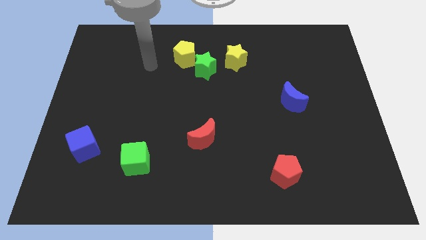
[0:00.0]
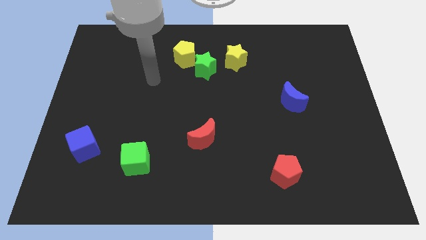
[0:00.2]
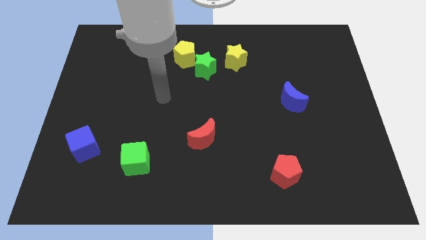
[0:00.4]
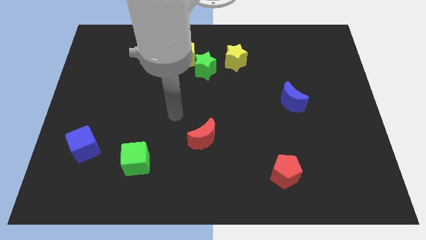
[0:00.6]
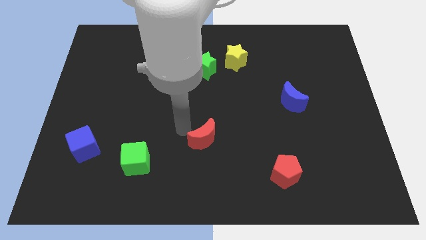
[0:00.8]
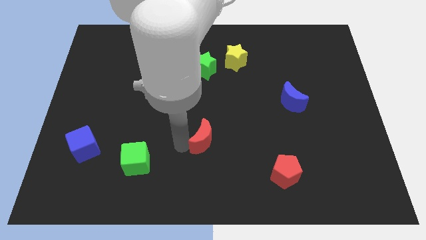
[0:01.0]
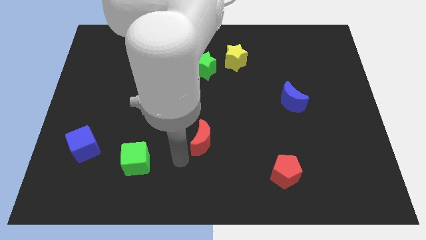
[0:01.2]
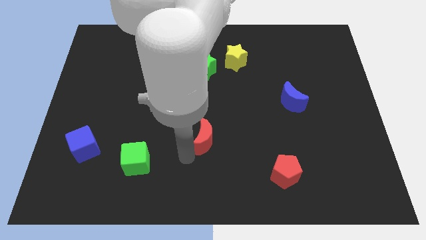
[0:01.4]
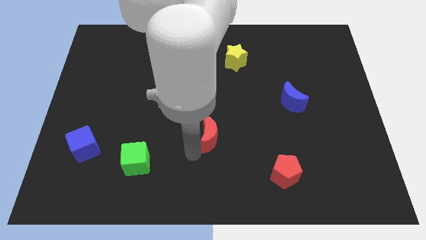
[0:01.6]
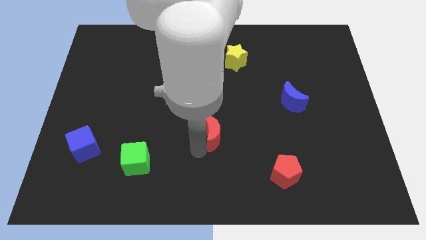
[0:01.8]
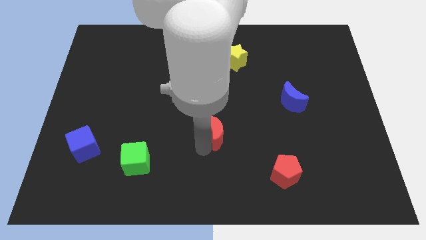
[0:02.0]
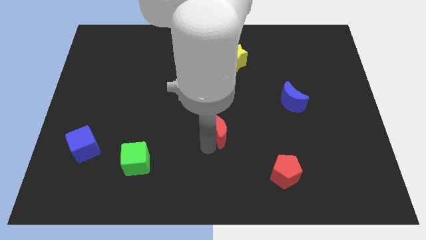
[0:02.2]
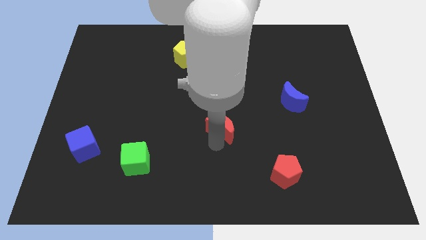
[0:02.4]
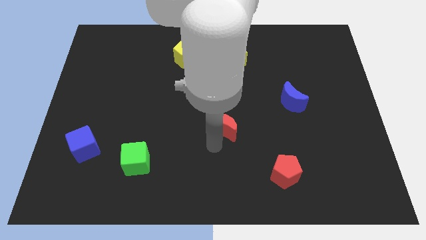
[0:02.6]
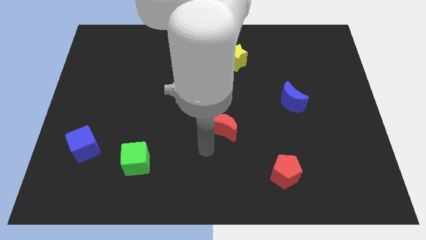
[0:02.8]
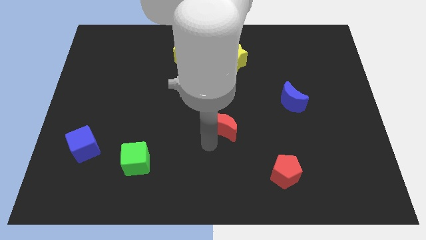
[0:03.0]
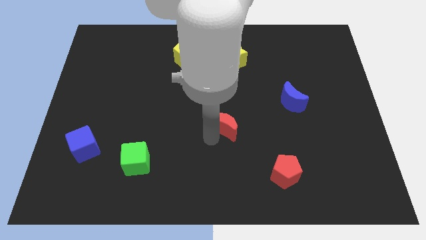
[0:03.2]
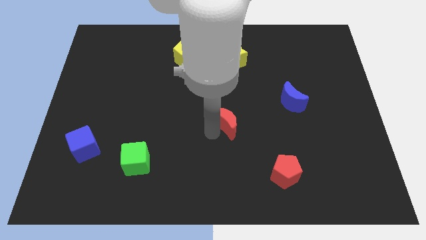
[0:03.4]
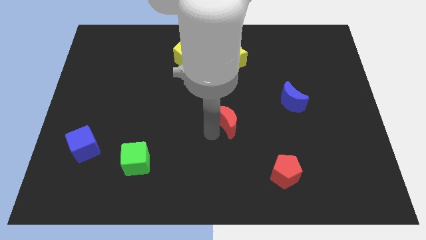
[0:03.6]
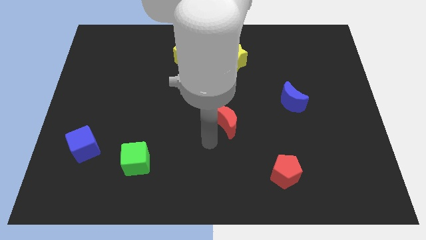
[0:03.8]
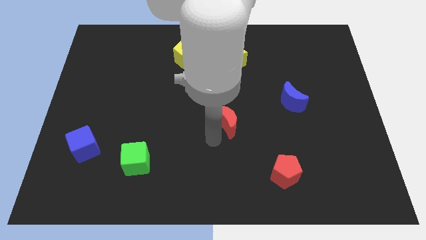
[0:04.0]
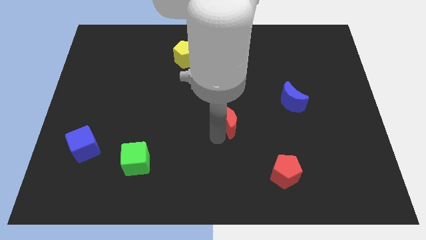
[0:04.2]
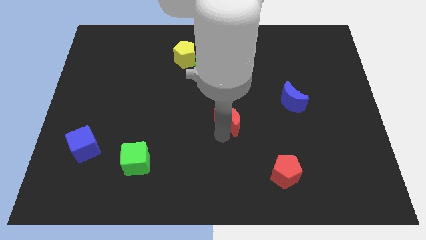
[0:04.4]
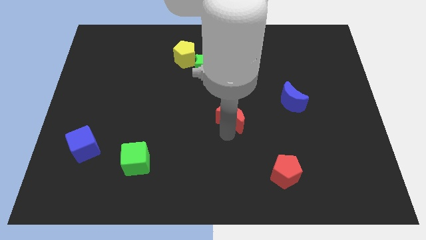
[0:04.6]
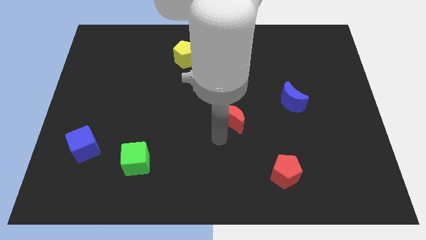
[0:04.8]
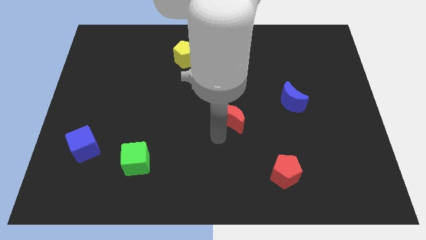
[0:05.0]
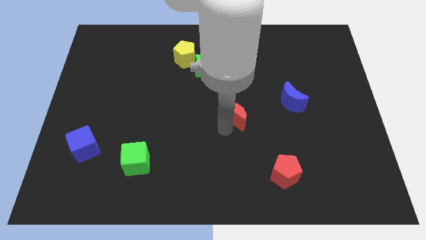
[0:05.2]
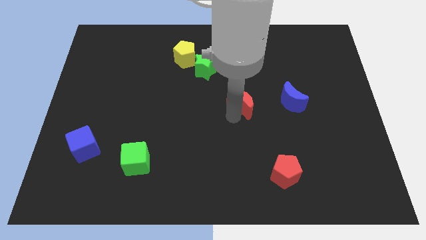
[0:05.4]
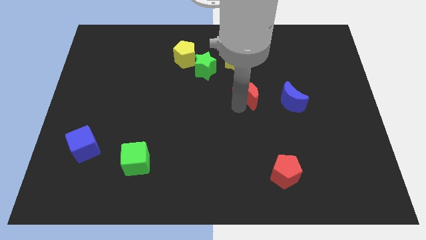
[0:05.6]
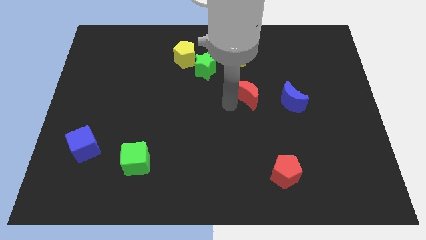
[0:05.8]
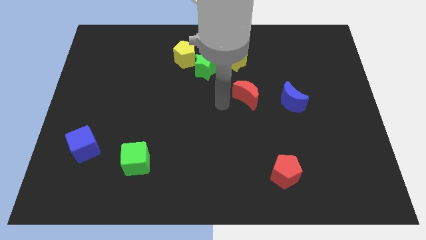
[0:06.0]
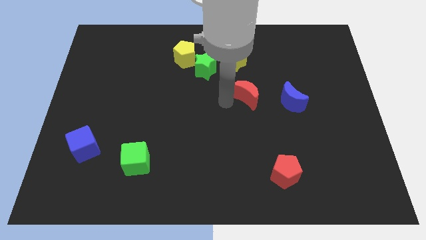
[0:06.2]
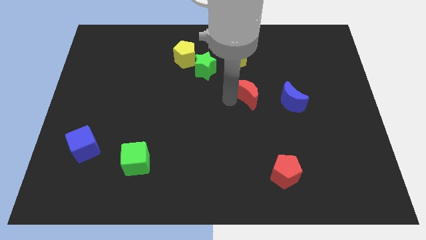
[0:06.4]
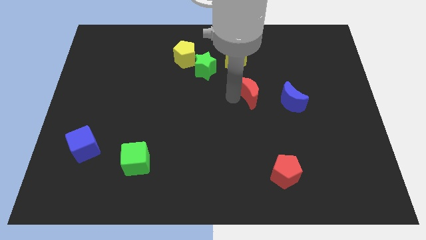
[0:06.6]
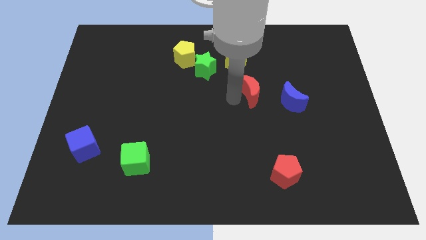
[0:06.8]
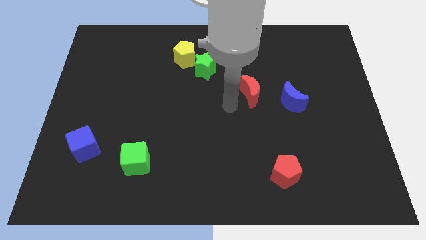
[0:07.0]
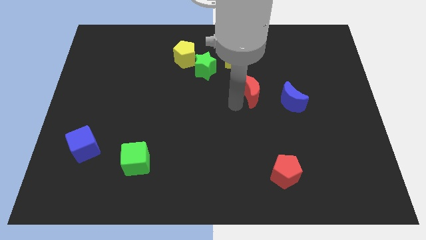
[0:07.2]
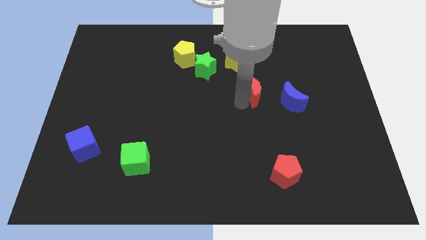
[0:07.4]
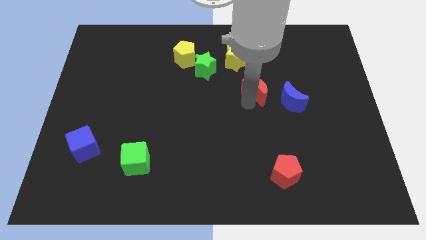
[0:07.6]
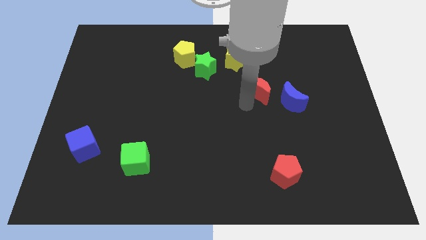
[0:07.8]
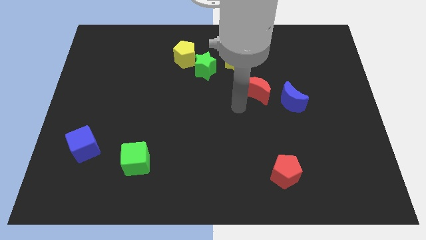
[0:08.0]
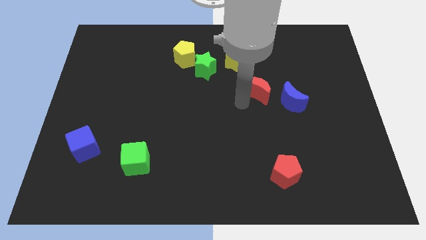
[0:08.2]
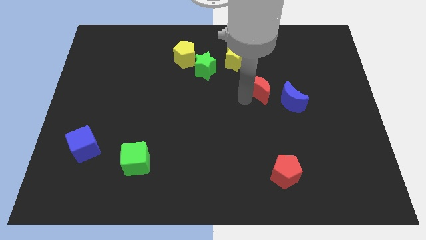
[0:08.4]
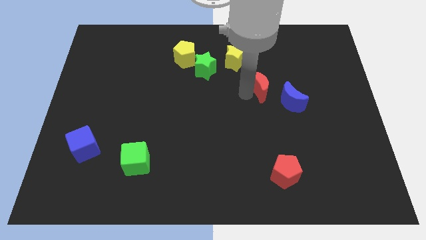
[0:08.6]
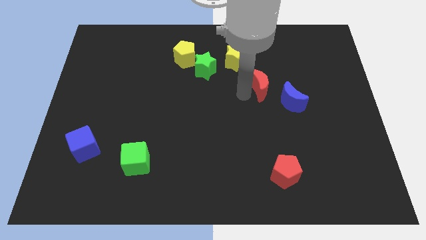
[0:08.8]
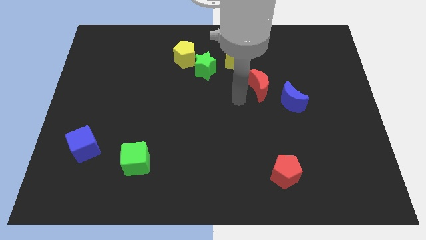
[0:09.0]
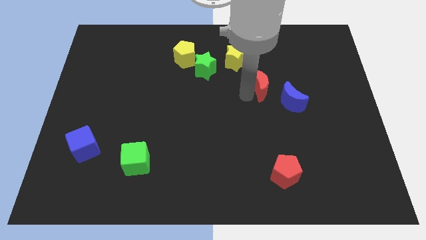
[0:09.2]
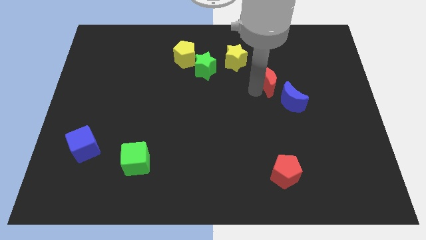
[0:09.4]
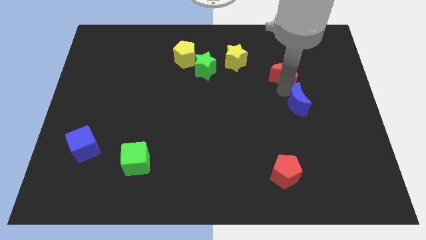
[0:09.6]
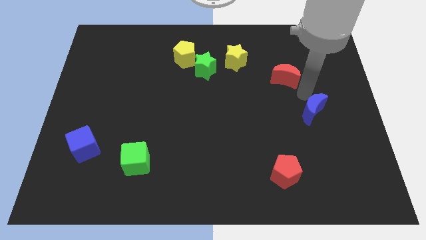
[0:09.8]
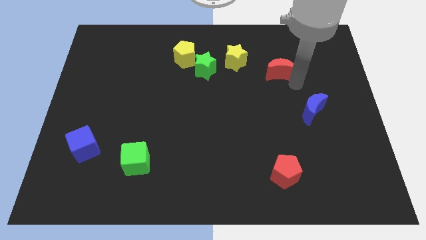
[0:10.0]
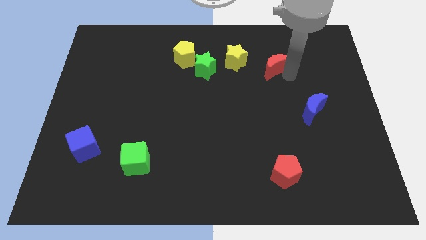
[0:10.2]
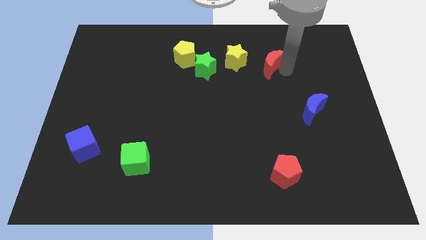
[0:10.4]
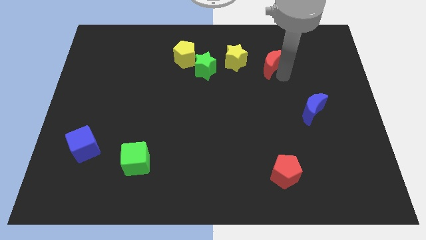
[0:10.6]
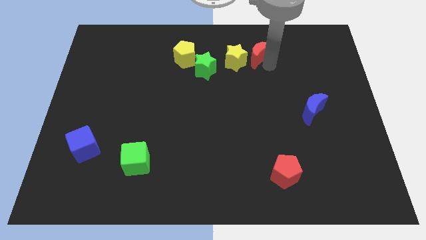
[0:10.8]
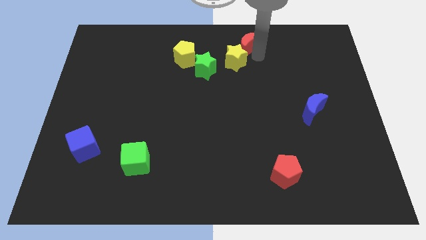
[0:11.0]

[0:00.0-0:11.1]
move the red moon to the towards your base

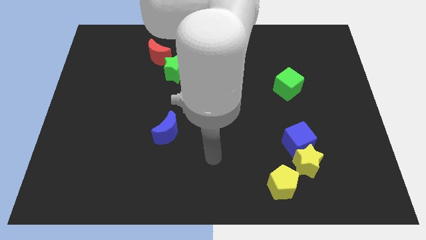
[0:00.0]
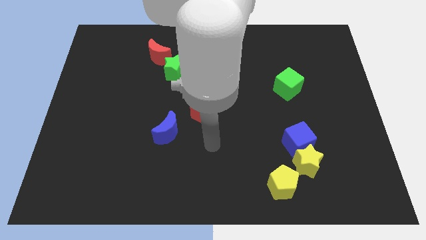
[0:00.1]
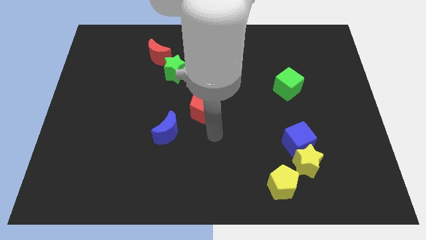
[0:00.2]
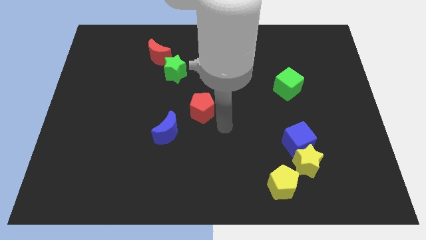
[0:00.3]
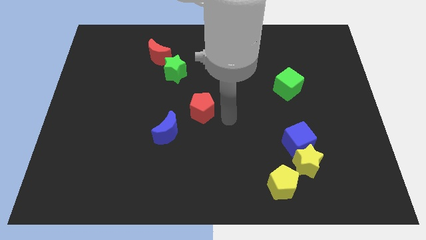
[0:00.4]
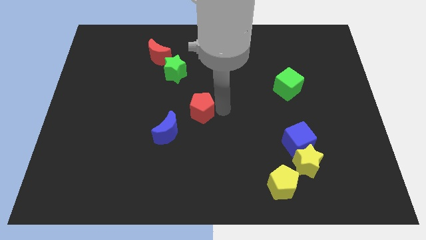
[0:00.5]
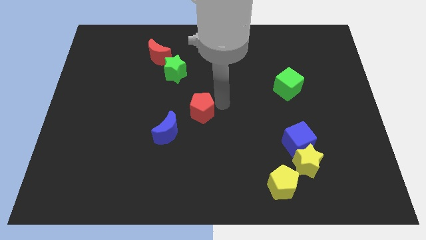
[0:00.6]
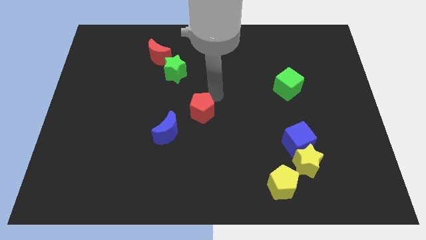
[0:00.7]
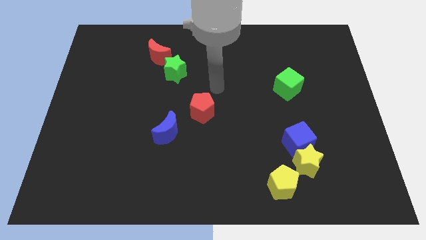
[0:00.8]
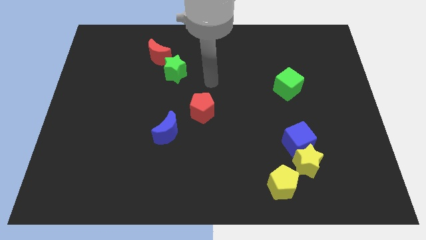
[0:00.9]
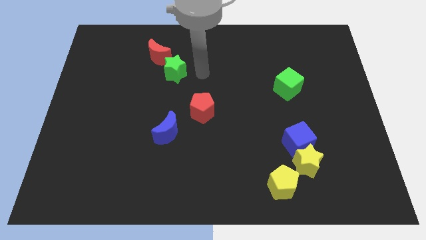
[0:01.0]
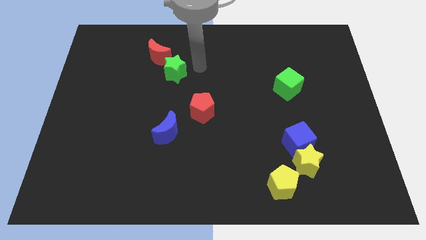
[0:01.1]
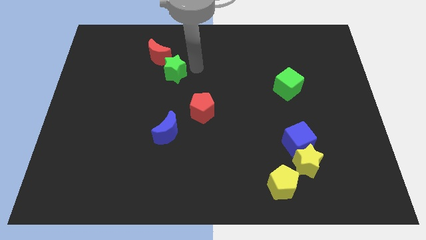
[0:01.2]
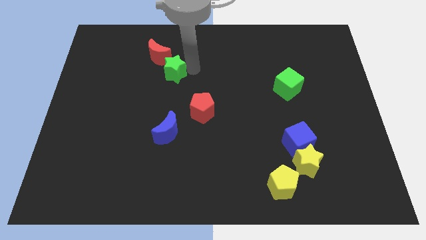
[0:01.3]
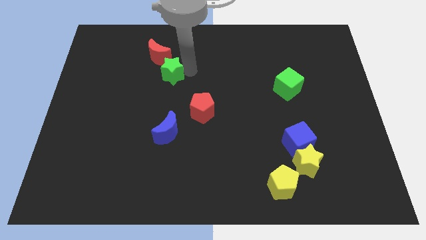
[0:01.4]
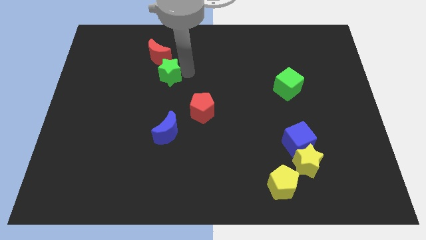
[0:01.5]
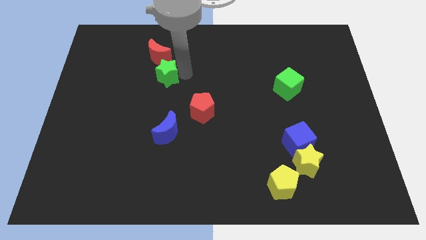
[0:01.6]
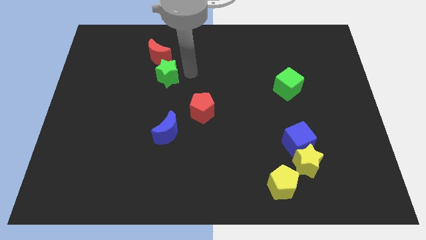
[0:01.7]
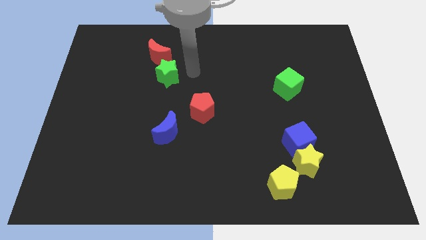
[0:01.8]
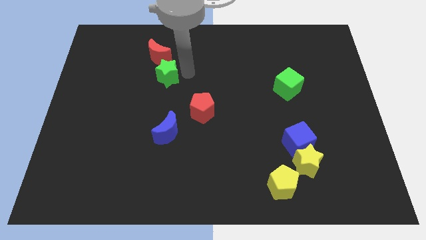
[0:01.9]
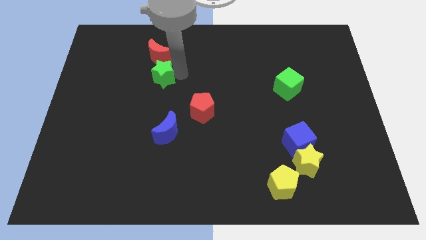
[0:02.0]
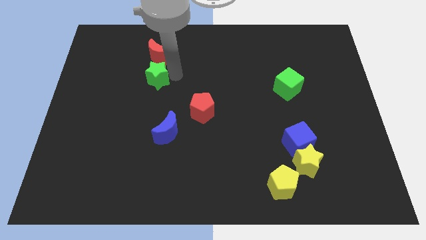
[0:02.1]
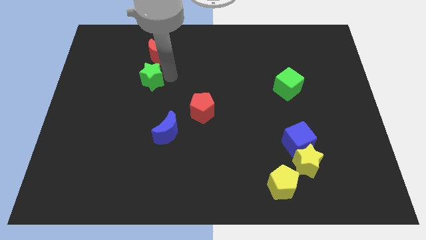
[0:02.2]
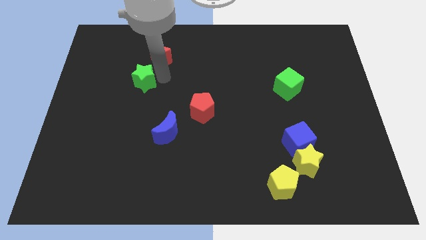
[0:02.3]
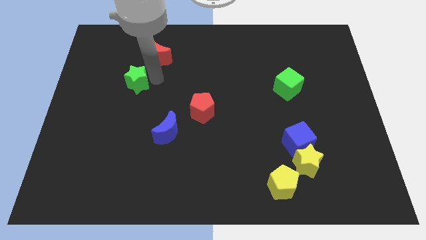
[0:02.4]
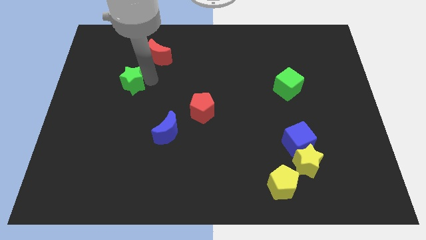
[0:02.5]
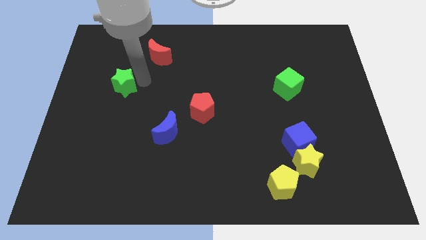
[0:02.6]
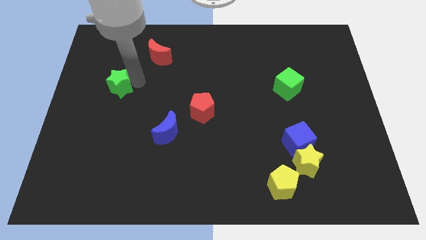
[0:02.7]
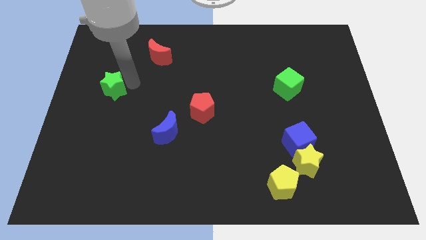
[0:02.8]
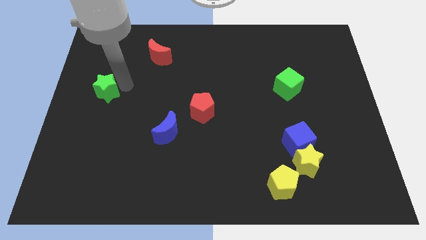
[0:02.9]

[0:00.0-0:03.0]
put the green star to the left side of the board
